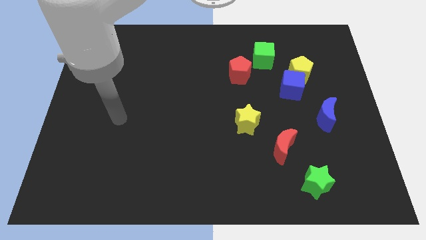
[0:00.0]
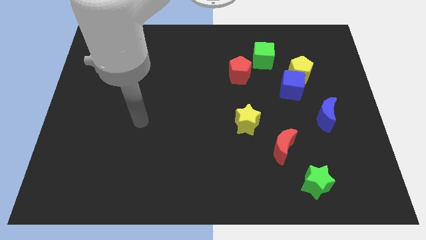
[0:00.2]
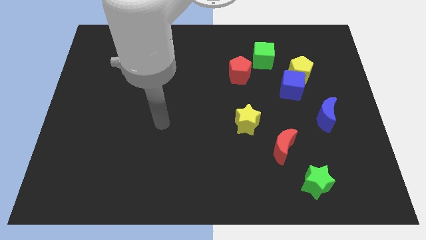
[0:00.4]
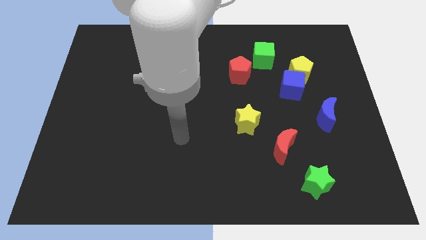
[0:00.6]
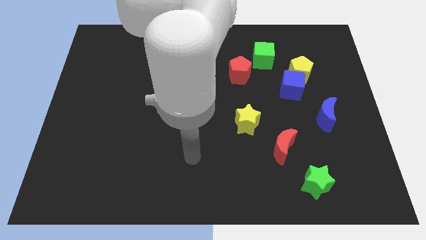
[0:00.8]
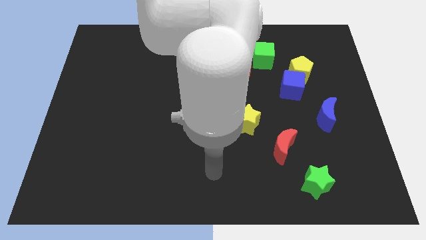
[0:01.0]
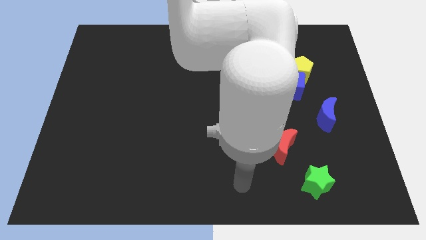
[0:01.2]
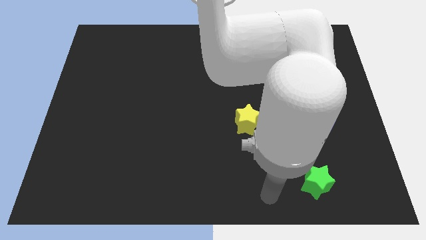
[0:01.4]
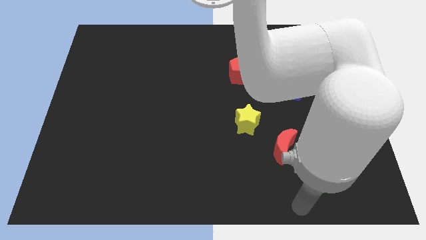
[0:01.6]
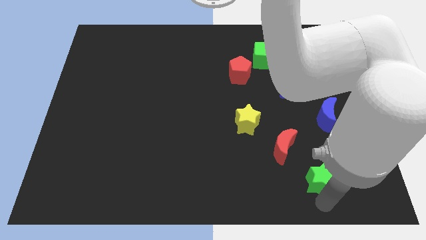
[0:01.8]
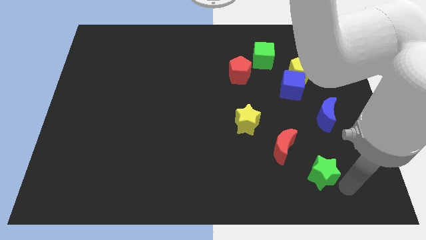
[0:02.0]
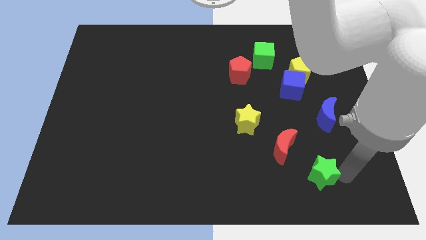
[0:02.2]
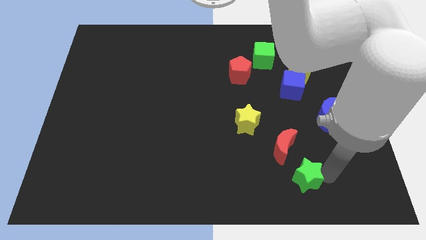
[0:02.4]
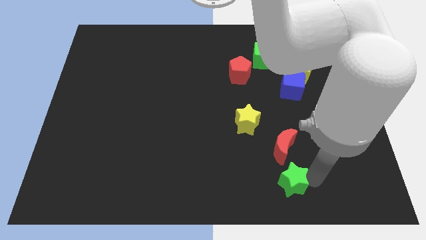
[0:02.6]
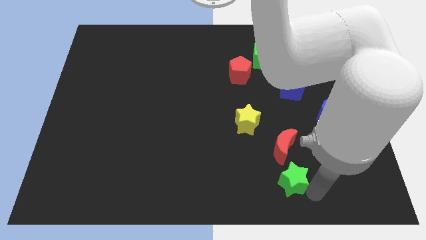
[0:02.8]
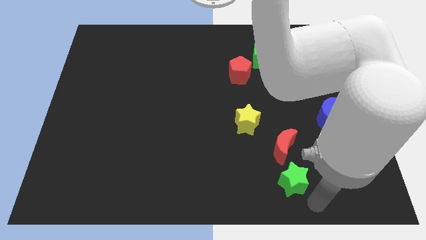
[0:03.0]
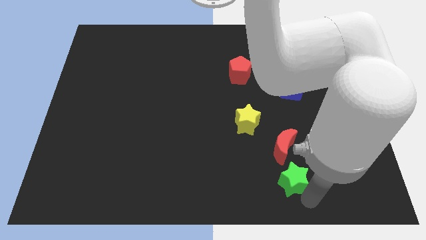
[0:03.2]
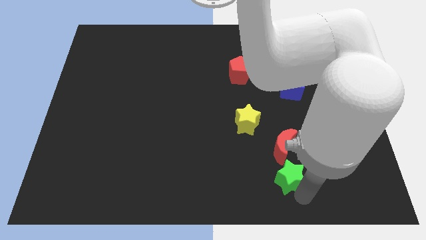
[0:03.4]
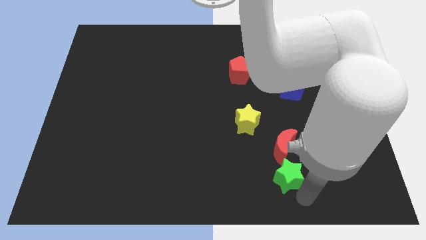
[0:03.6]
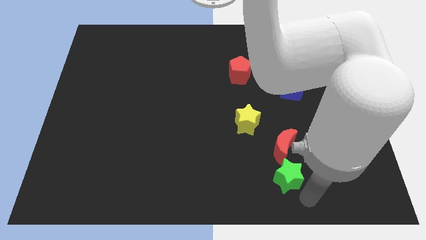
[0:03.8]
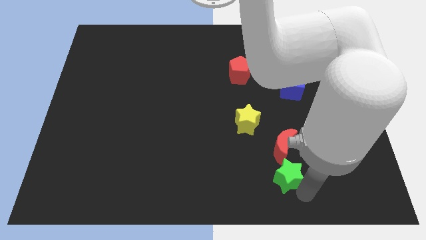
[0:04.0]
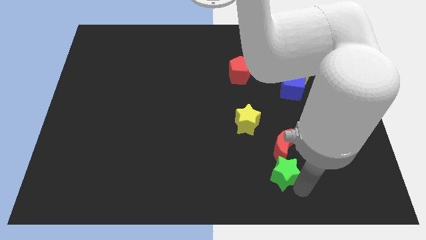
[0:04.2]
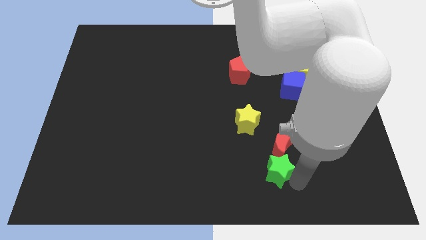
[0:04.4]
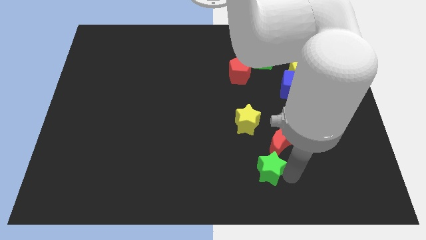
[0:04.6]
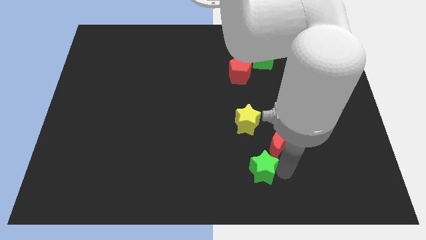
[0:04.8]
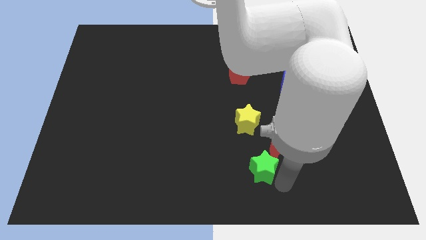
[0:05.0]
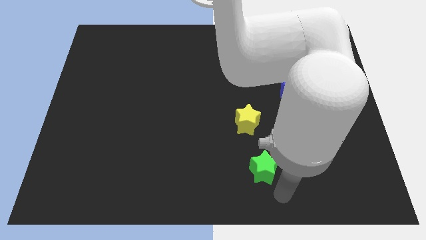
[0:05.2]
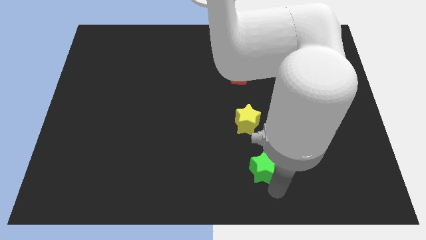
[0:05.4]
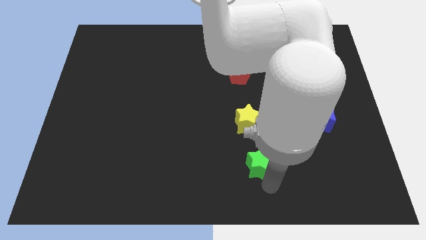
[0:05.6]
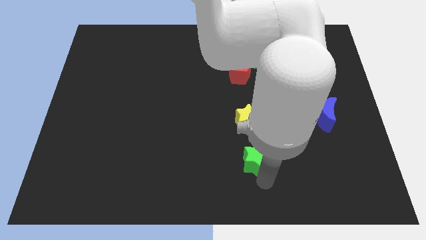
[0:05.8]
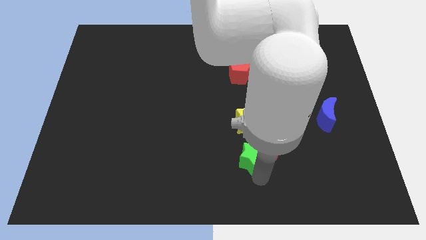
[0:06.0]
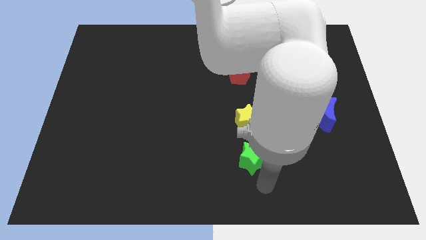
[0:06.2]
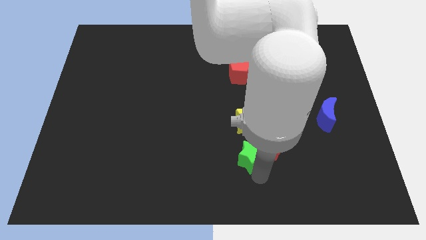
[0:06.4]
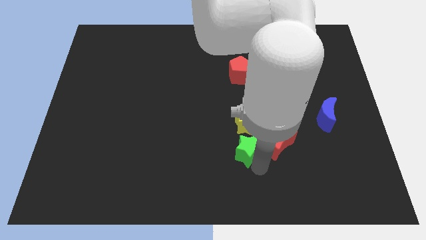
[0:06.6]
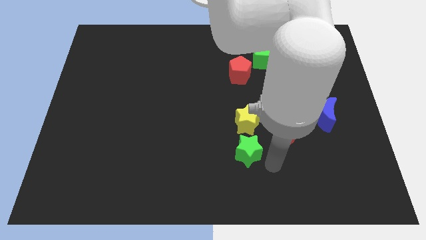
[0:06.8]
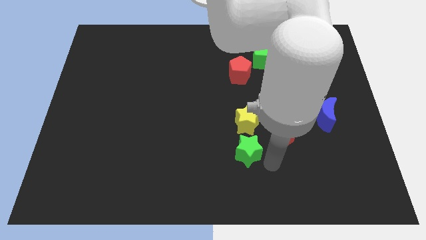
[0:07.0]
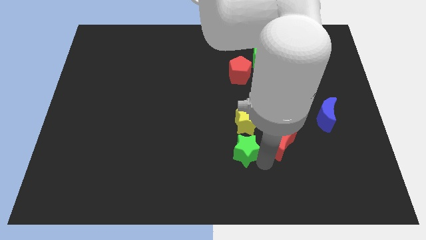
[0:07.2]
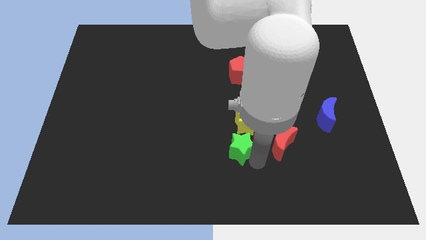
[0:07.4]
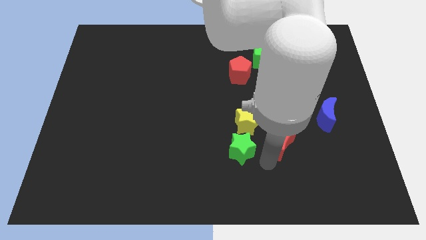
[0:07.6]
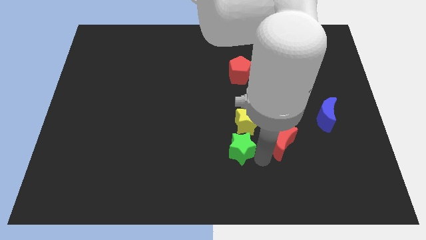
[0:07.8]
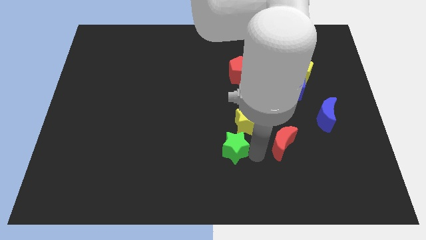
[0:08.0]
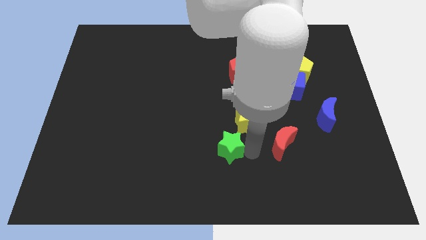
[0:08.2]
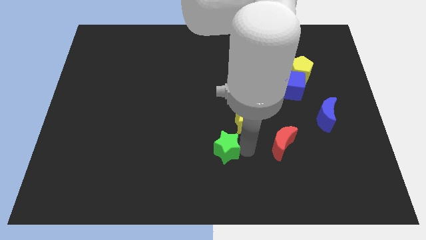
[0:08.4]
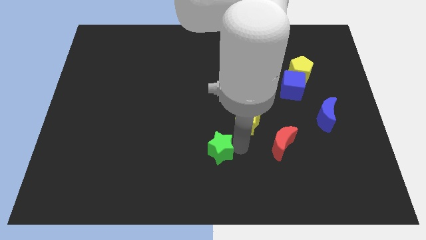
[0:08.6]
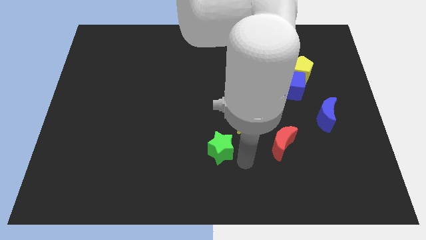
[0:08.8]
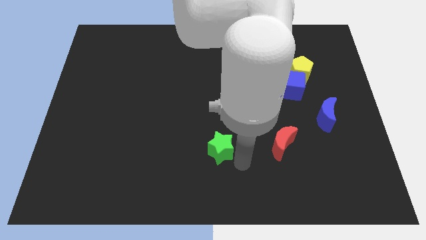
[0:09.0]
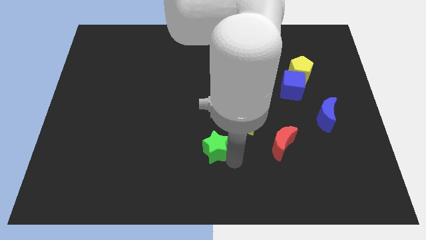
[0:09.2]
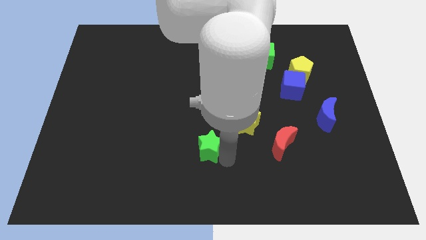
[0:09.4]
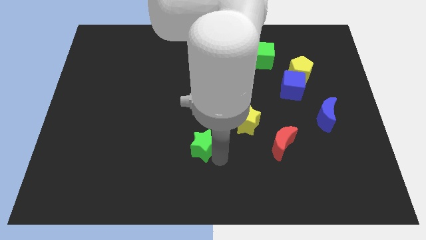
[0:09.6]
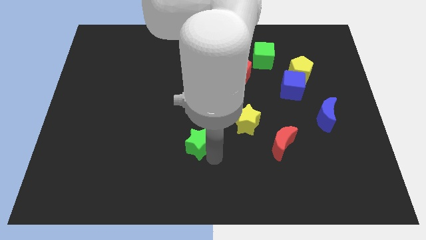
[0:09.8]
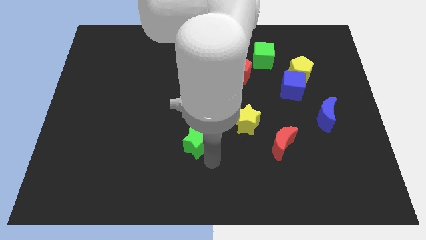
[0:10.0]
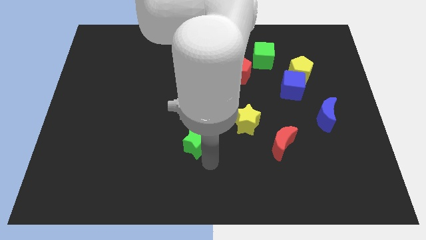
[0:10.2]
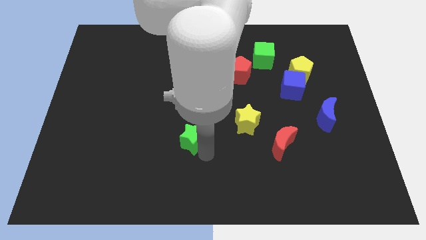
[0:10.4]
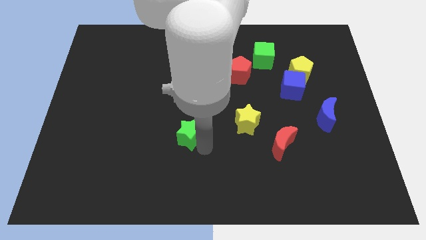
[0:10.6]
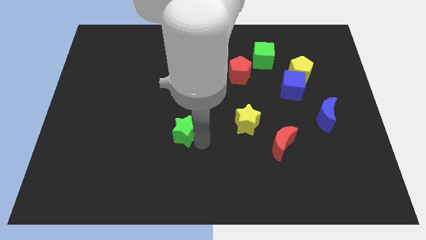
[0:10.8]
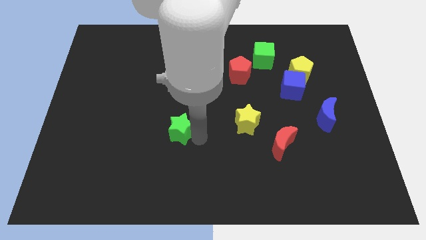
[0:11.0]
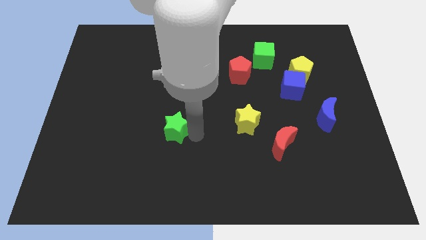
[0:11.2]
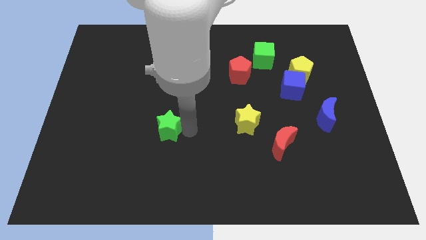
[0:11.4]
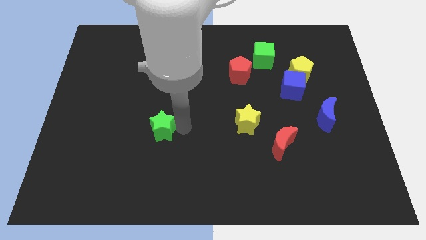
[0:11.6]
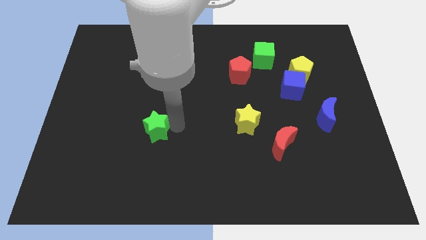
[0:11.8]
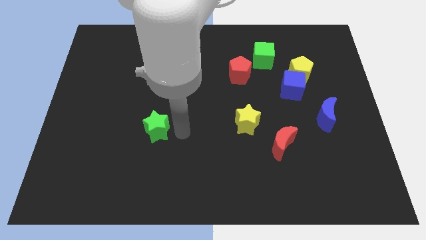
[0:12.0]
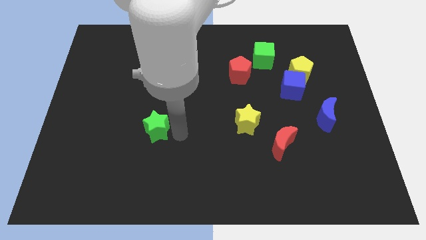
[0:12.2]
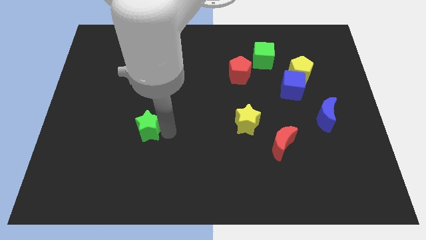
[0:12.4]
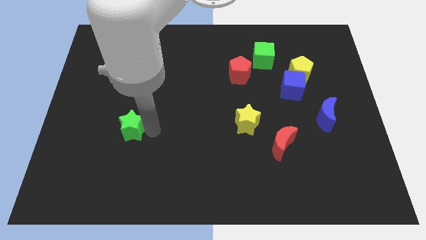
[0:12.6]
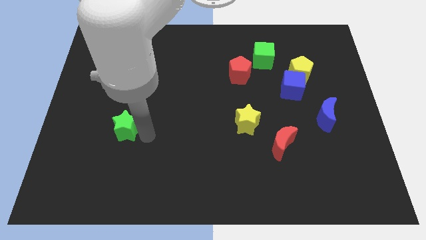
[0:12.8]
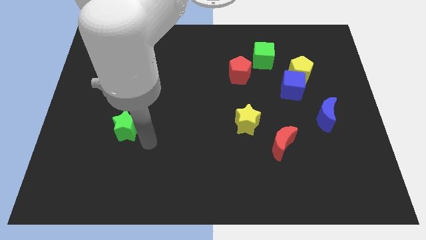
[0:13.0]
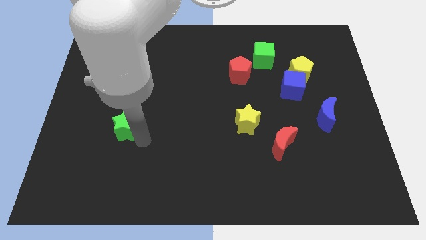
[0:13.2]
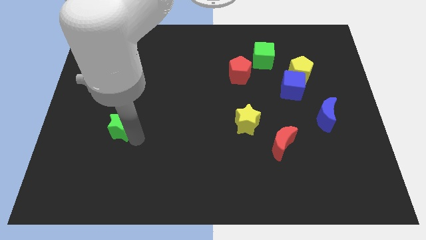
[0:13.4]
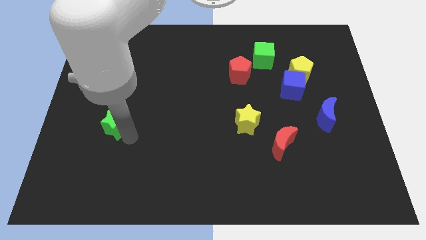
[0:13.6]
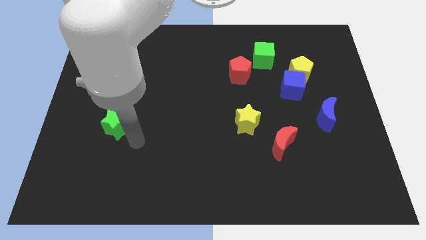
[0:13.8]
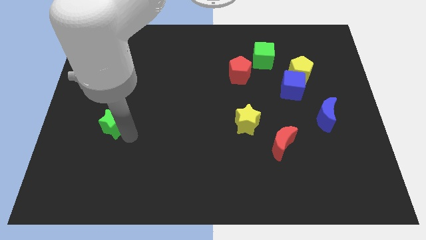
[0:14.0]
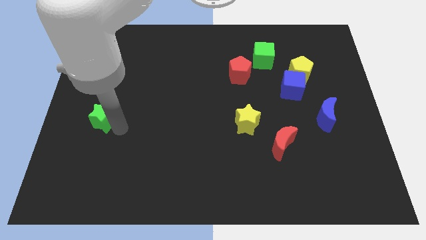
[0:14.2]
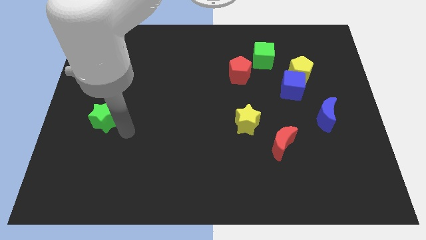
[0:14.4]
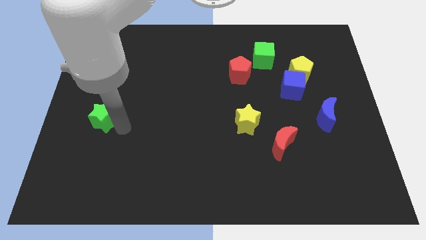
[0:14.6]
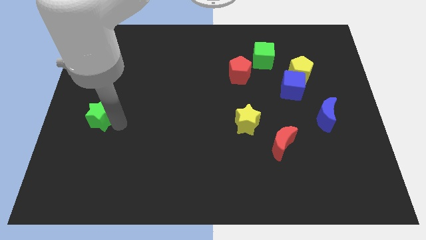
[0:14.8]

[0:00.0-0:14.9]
push the green star to the center left
